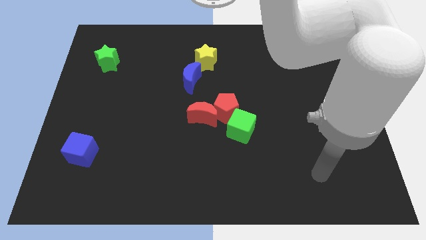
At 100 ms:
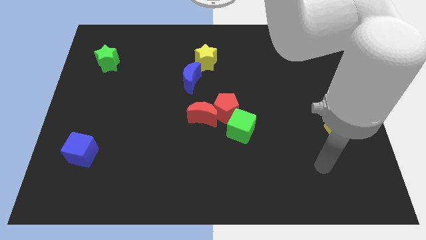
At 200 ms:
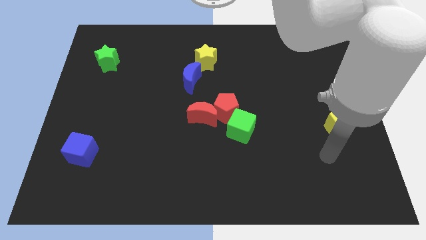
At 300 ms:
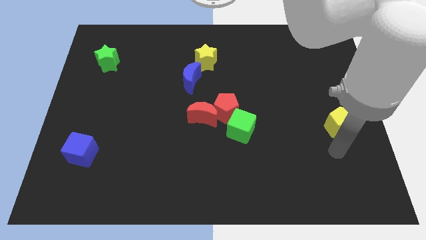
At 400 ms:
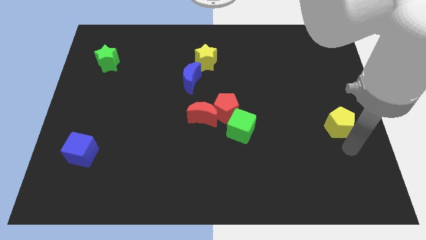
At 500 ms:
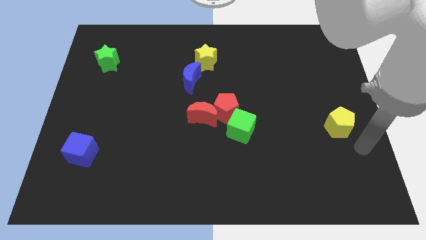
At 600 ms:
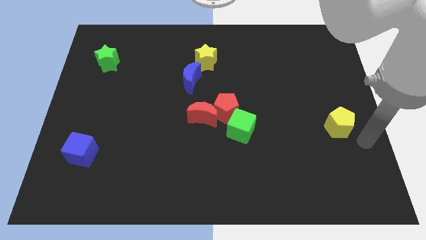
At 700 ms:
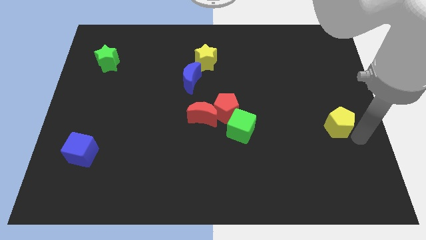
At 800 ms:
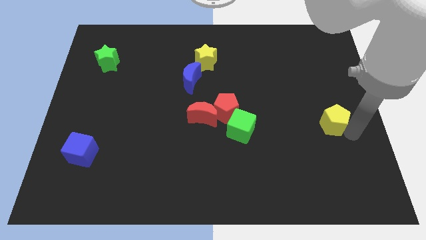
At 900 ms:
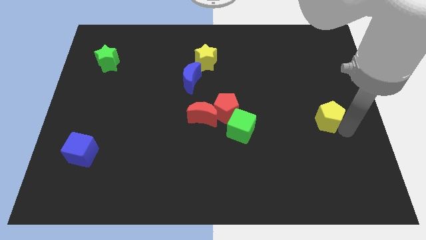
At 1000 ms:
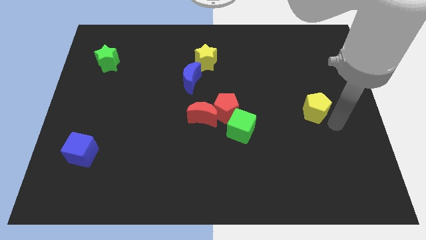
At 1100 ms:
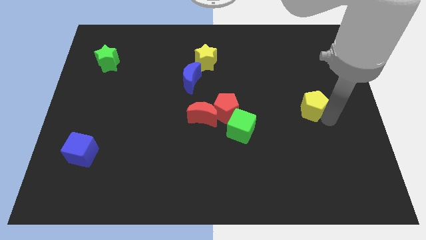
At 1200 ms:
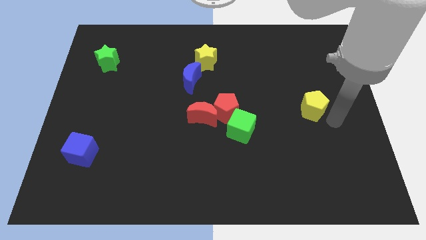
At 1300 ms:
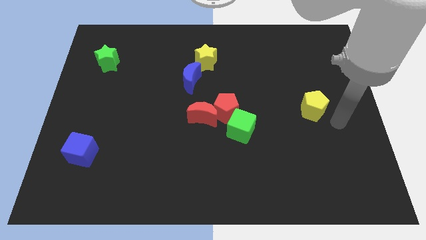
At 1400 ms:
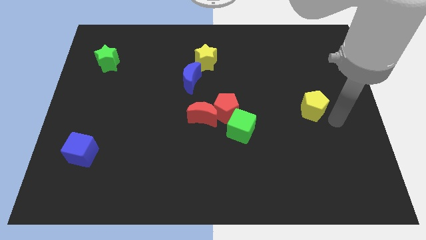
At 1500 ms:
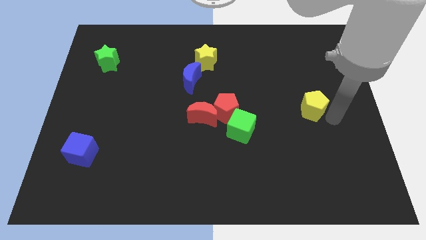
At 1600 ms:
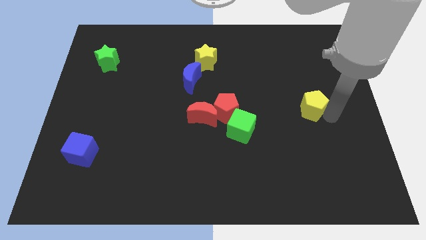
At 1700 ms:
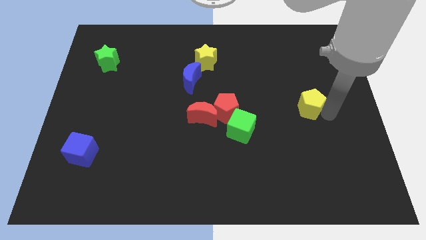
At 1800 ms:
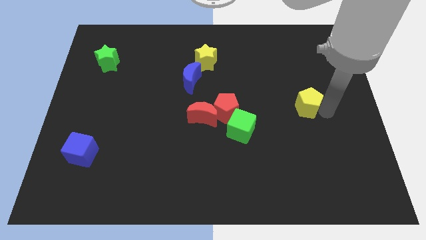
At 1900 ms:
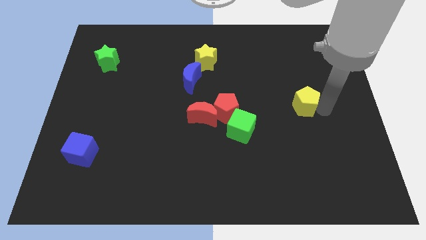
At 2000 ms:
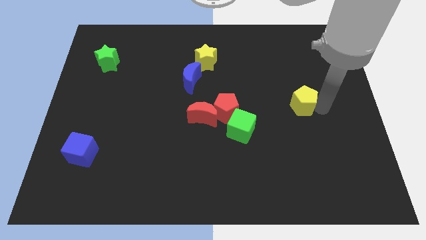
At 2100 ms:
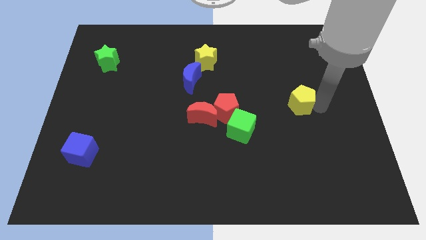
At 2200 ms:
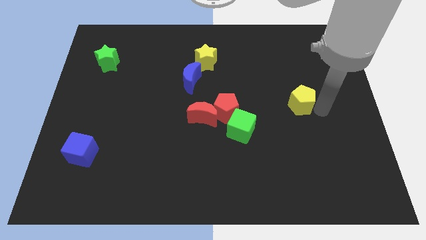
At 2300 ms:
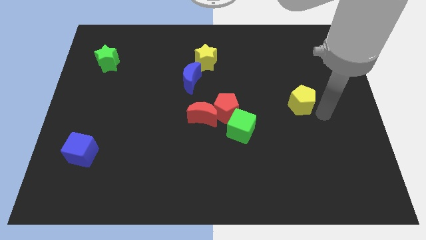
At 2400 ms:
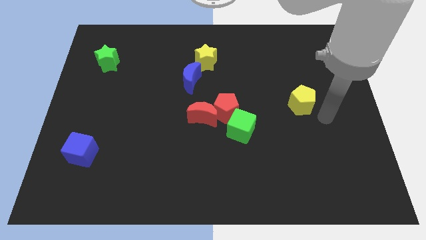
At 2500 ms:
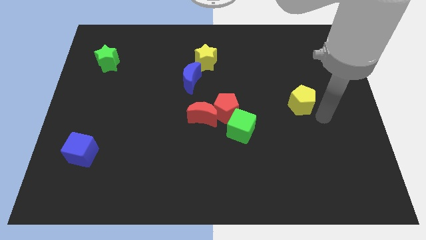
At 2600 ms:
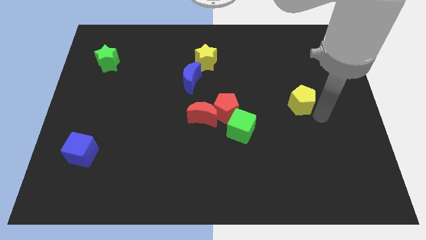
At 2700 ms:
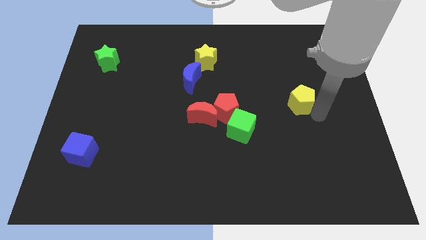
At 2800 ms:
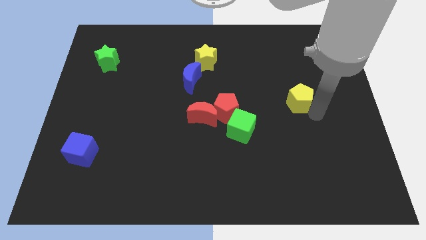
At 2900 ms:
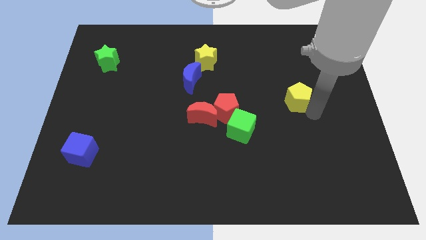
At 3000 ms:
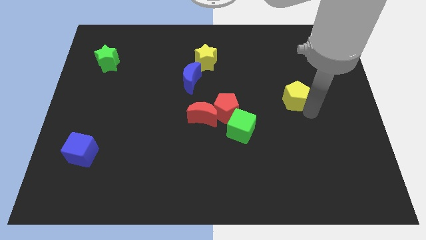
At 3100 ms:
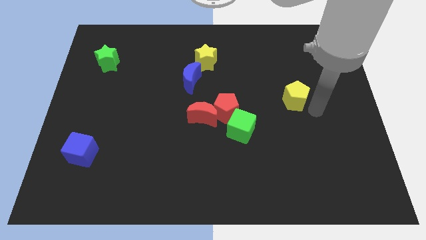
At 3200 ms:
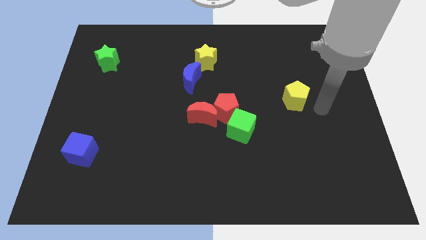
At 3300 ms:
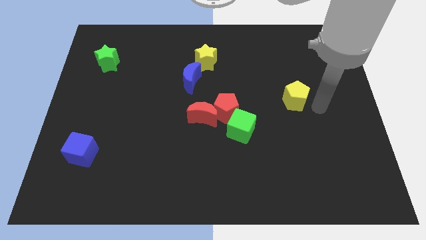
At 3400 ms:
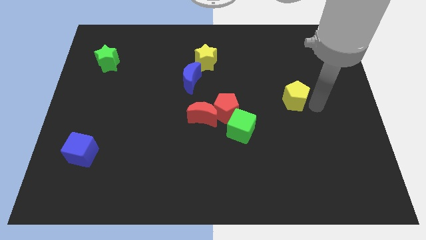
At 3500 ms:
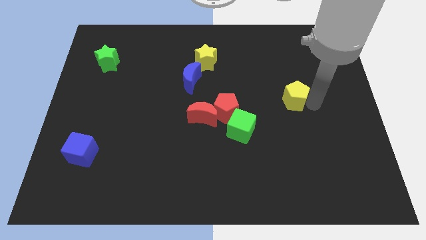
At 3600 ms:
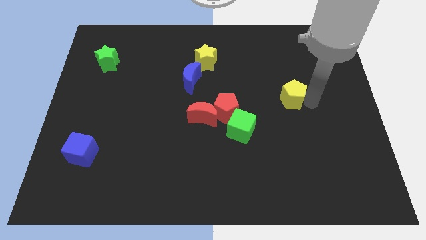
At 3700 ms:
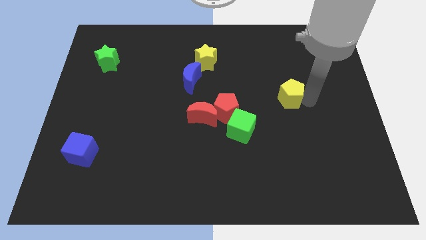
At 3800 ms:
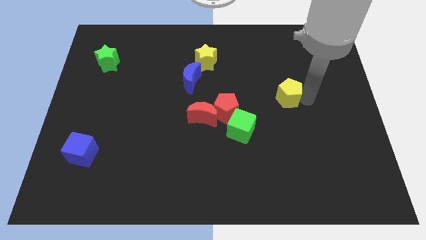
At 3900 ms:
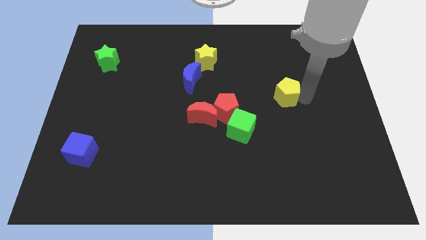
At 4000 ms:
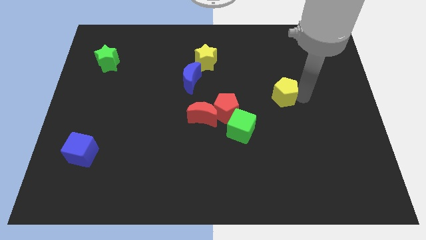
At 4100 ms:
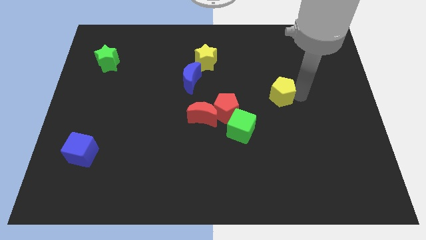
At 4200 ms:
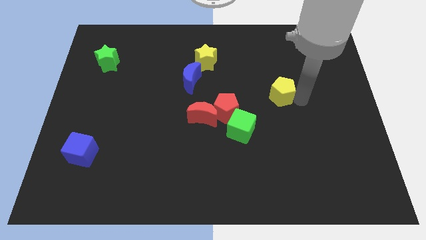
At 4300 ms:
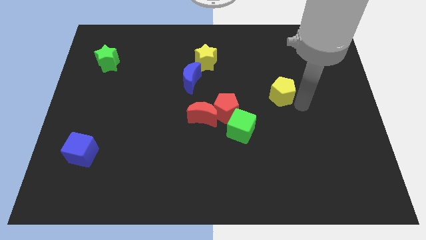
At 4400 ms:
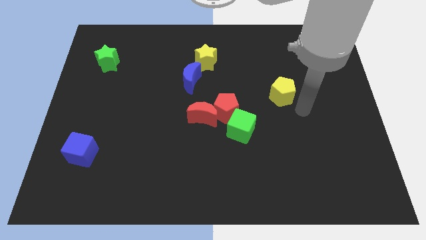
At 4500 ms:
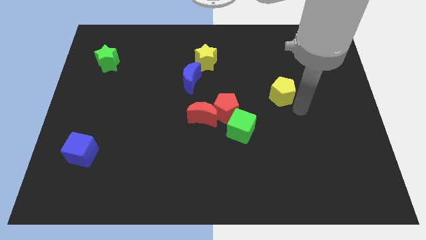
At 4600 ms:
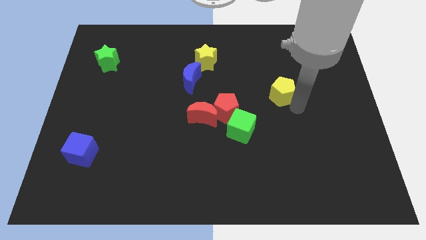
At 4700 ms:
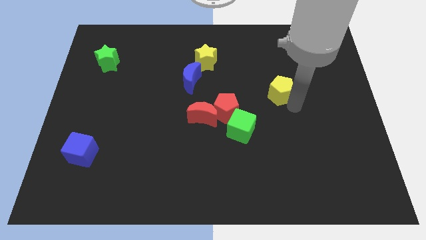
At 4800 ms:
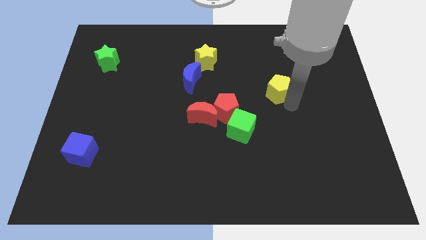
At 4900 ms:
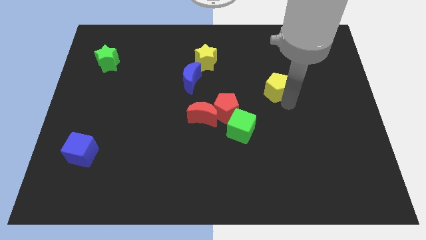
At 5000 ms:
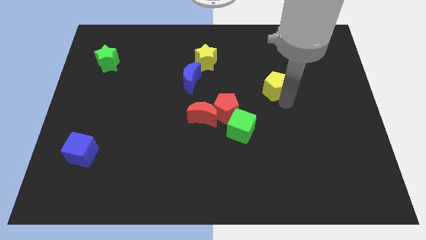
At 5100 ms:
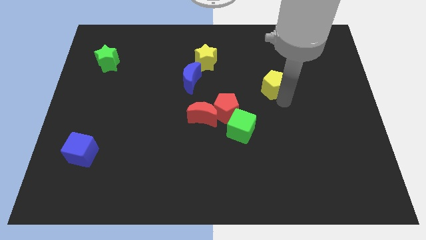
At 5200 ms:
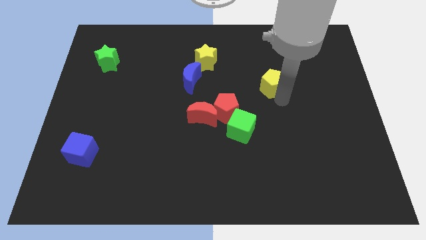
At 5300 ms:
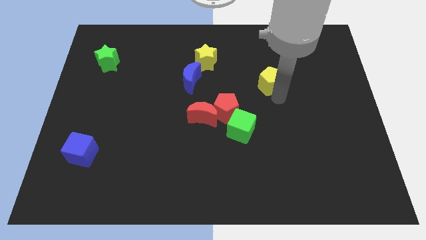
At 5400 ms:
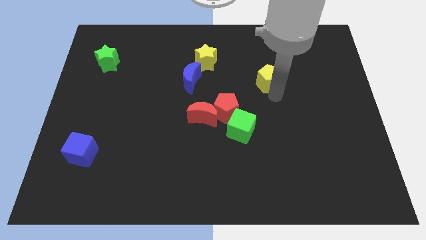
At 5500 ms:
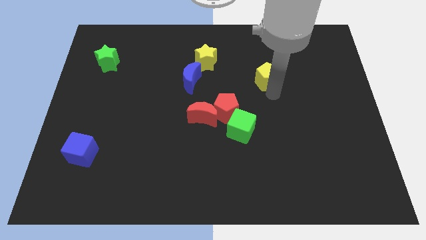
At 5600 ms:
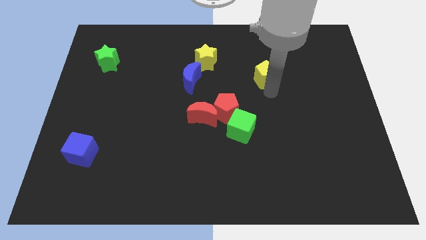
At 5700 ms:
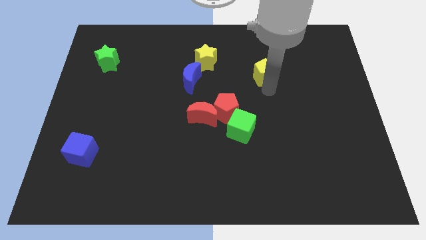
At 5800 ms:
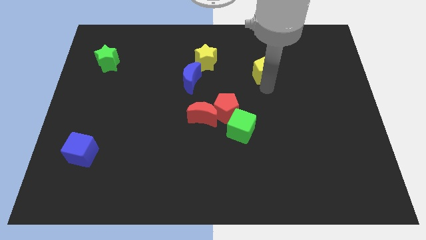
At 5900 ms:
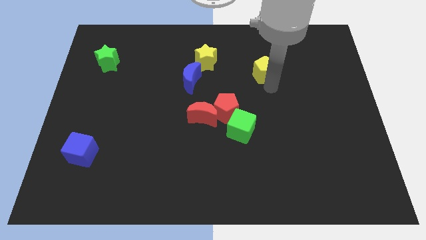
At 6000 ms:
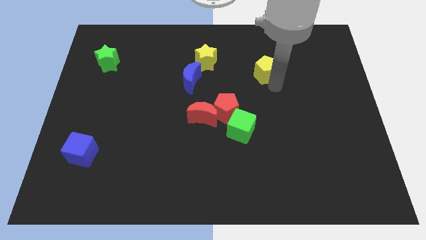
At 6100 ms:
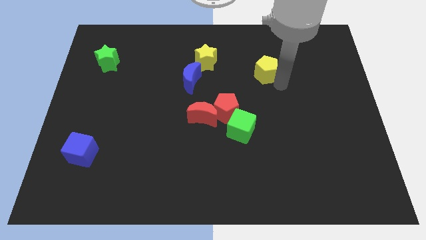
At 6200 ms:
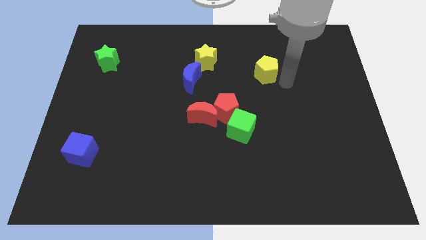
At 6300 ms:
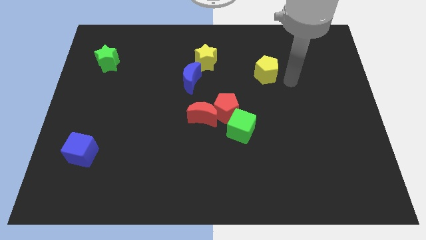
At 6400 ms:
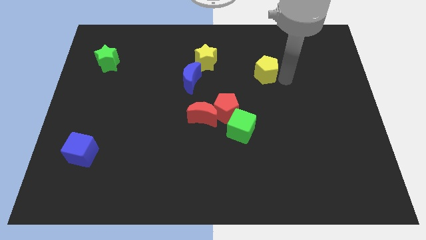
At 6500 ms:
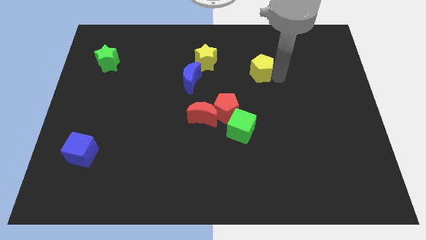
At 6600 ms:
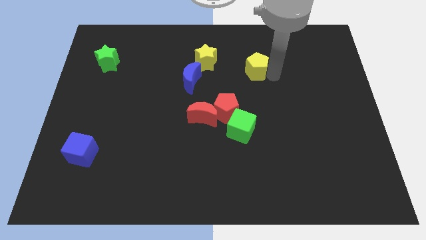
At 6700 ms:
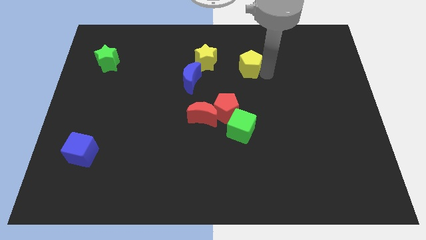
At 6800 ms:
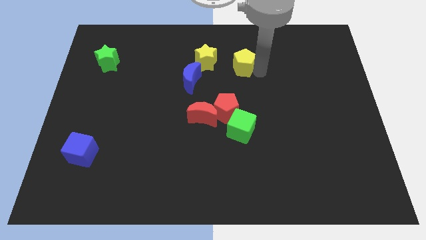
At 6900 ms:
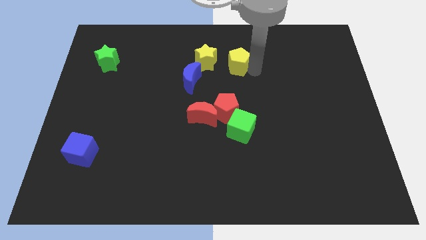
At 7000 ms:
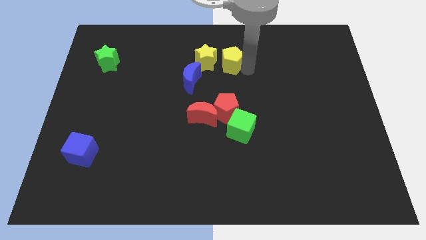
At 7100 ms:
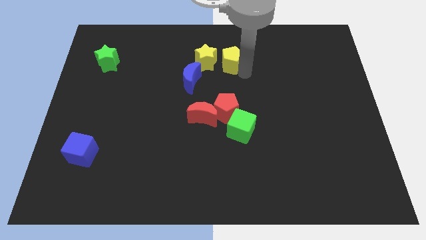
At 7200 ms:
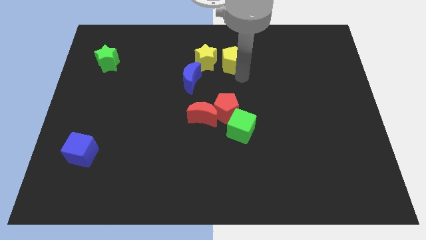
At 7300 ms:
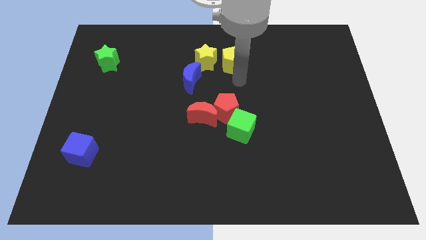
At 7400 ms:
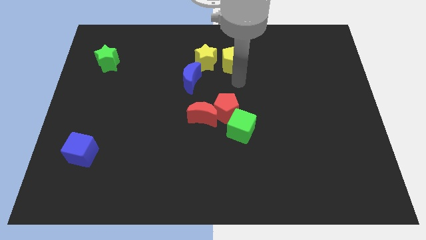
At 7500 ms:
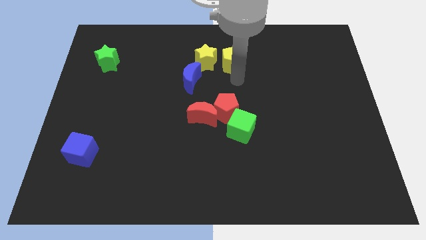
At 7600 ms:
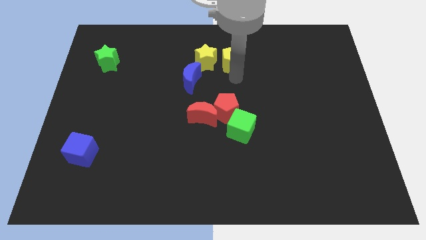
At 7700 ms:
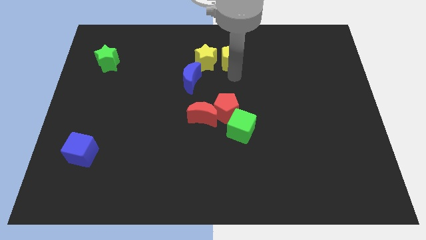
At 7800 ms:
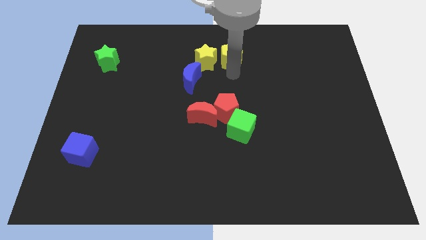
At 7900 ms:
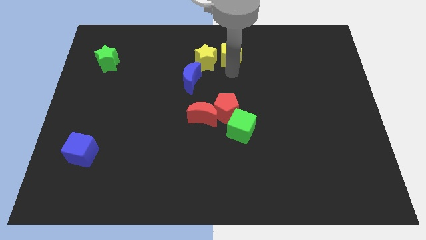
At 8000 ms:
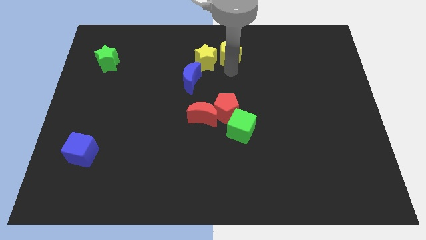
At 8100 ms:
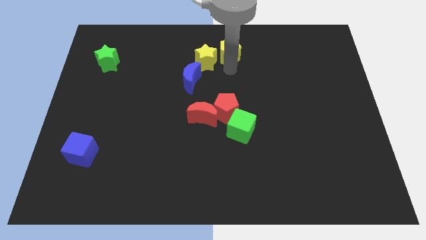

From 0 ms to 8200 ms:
push the yellow pentagon to the towards your base
